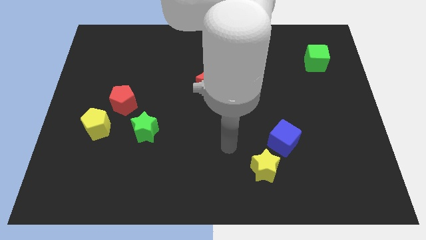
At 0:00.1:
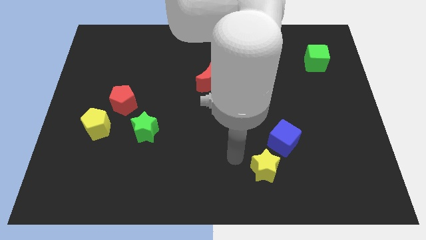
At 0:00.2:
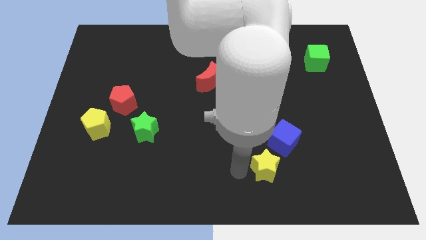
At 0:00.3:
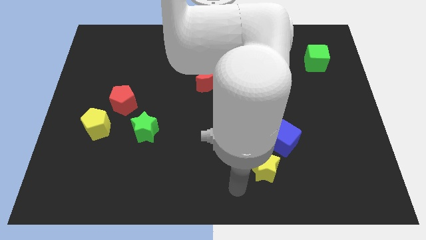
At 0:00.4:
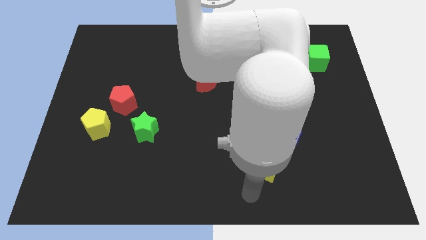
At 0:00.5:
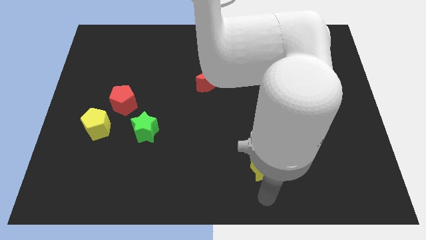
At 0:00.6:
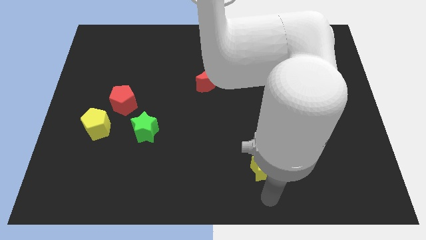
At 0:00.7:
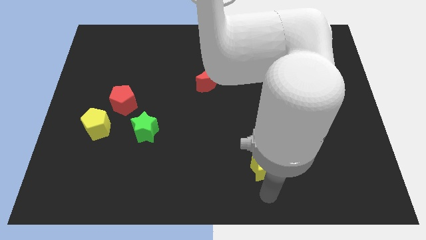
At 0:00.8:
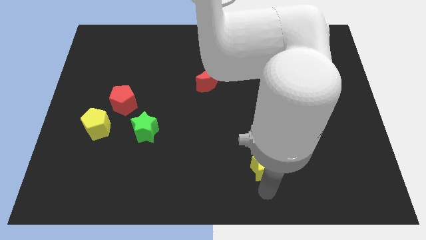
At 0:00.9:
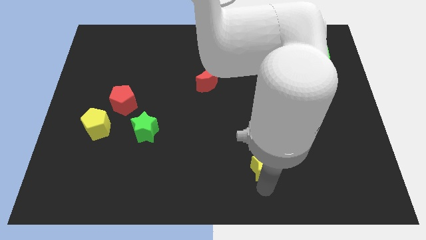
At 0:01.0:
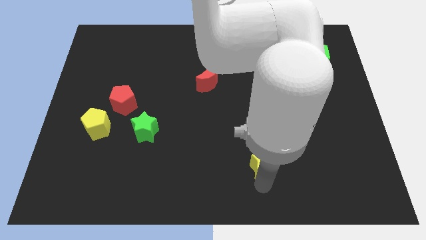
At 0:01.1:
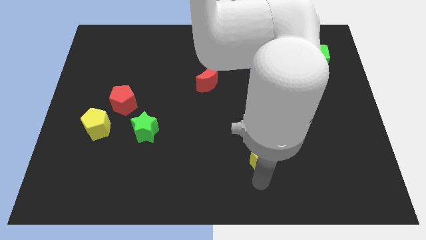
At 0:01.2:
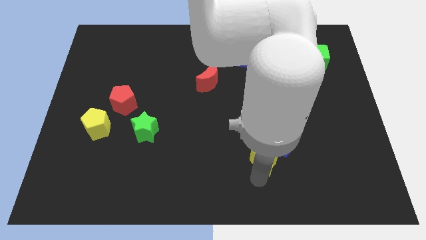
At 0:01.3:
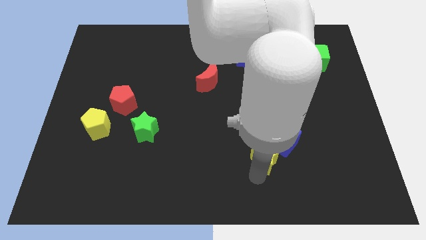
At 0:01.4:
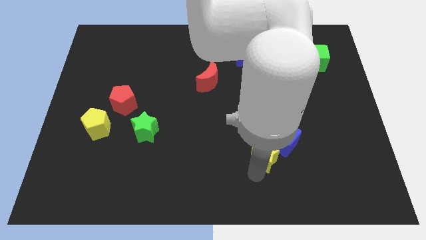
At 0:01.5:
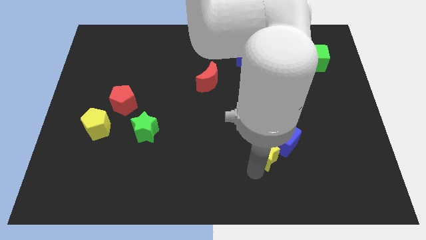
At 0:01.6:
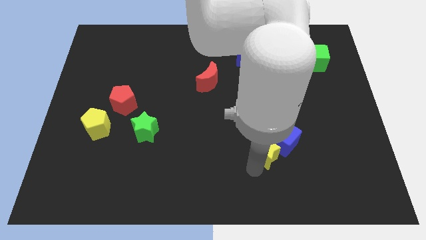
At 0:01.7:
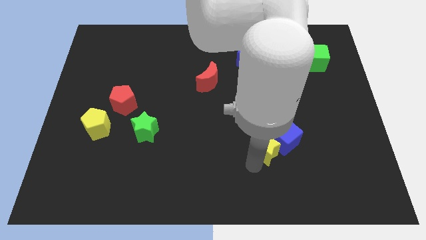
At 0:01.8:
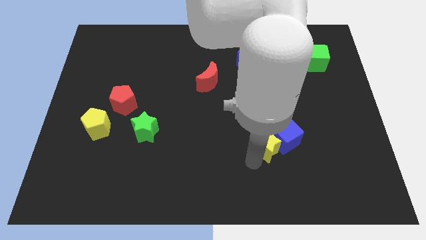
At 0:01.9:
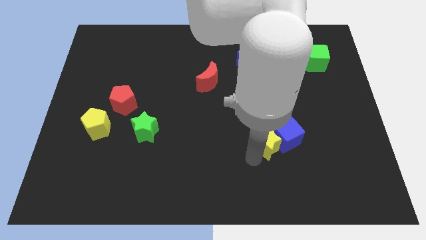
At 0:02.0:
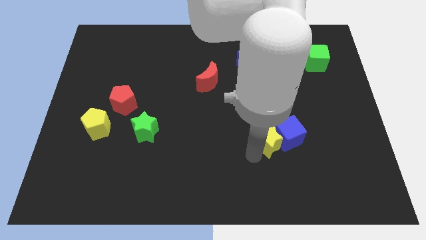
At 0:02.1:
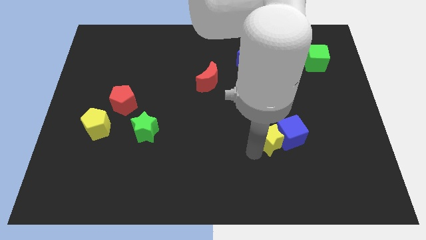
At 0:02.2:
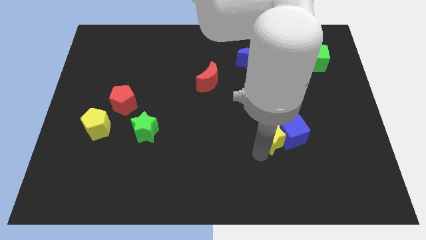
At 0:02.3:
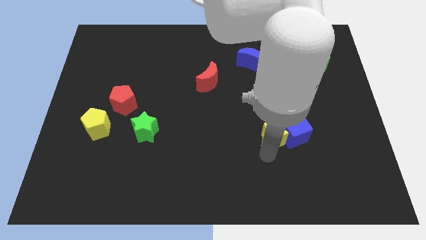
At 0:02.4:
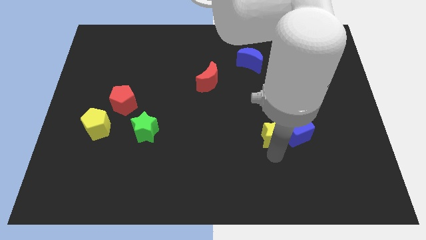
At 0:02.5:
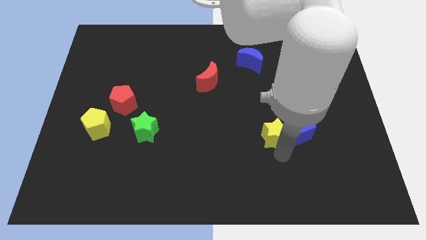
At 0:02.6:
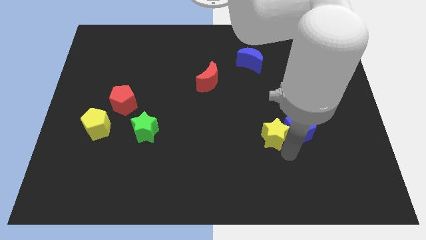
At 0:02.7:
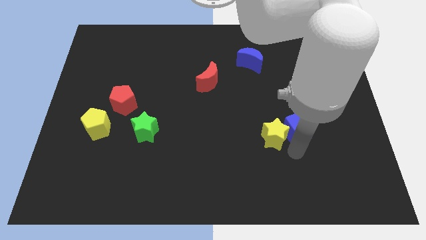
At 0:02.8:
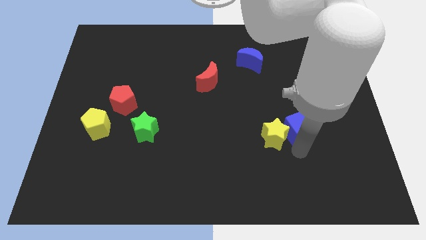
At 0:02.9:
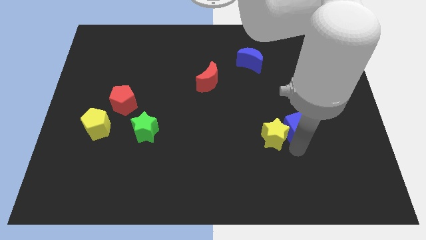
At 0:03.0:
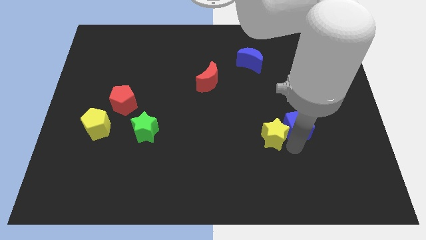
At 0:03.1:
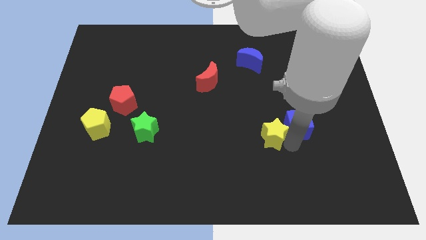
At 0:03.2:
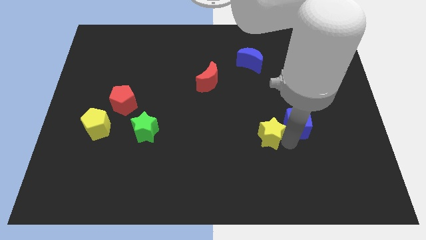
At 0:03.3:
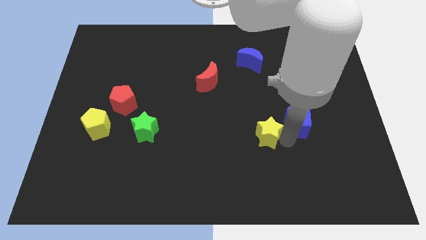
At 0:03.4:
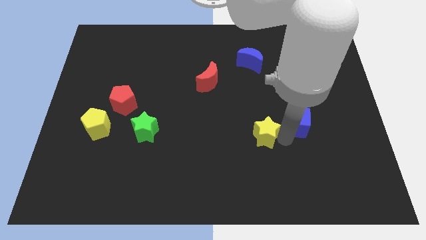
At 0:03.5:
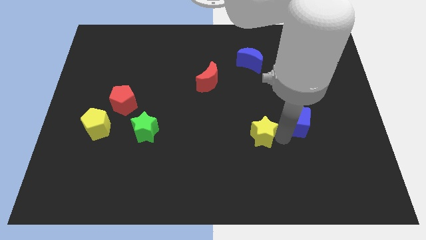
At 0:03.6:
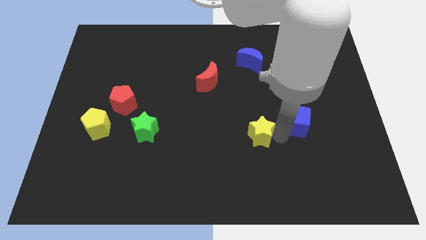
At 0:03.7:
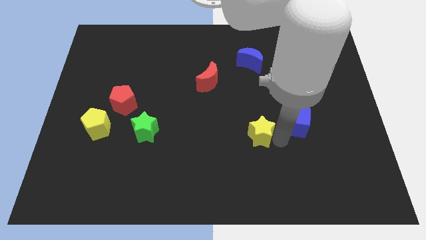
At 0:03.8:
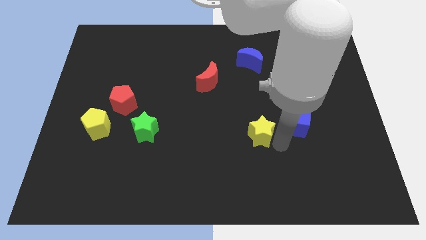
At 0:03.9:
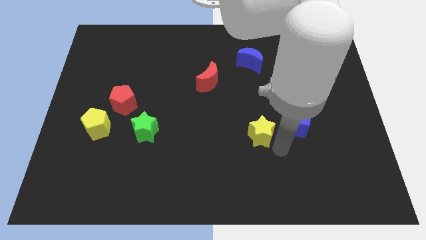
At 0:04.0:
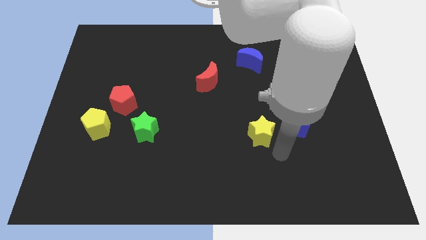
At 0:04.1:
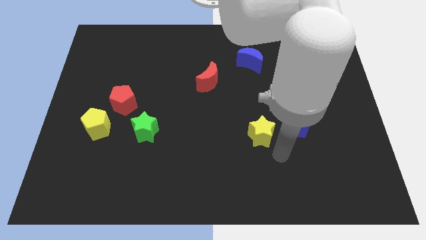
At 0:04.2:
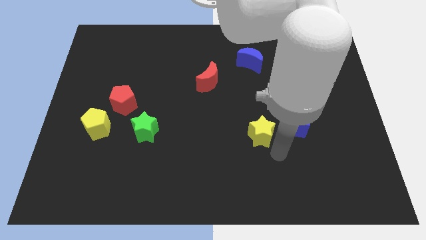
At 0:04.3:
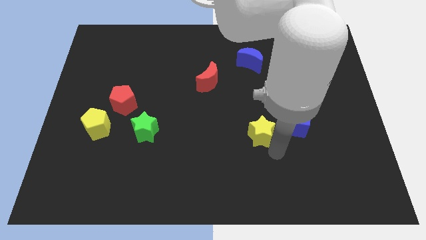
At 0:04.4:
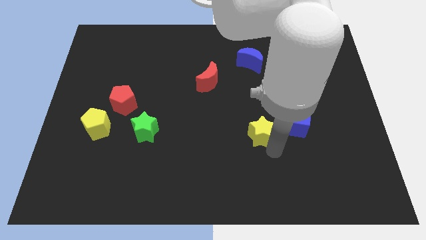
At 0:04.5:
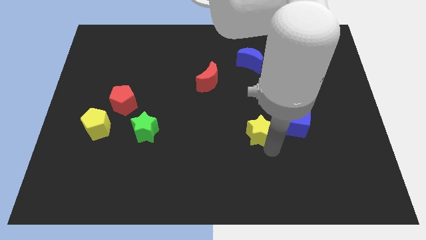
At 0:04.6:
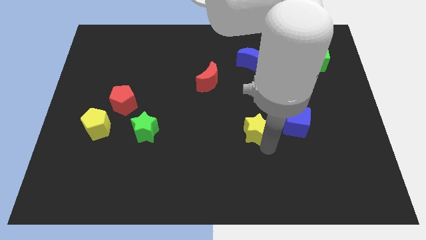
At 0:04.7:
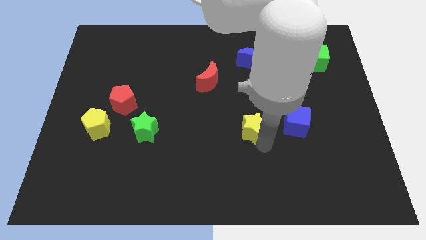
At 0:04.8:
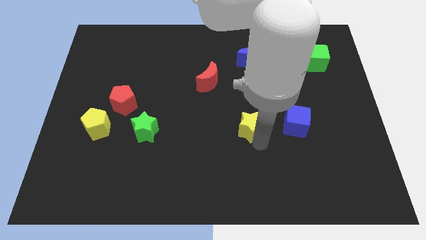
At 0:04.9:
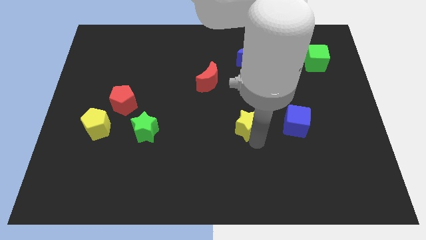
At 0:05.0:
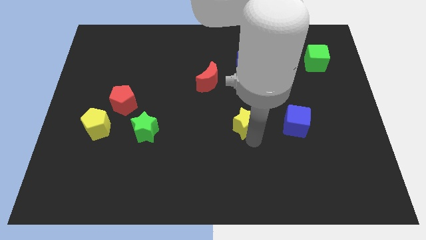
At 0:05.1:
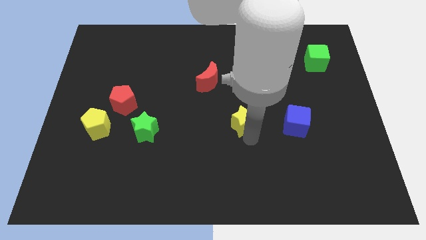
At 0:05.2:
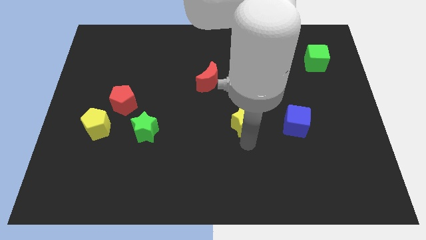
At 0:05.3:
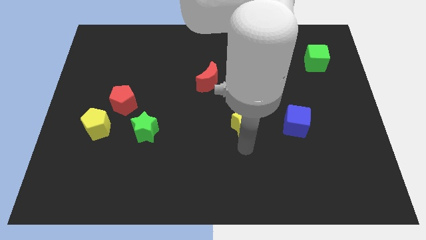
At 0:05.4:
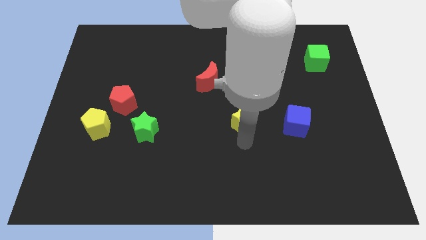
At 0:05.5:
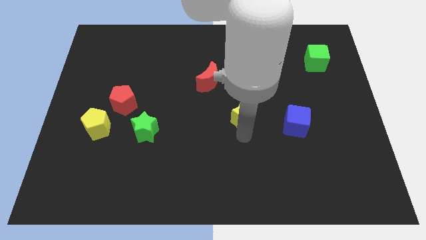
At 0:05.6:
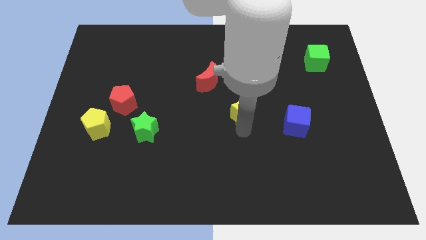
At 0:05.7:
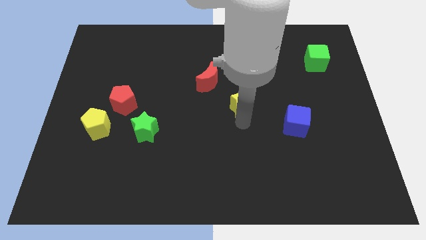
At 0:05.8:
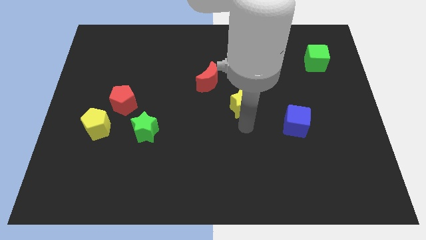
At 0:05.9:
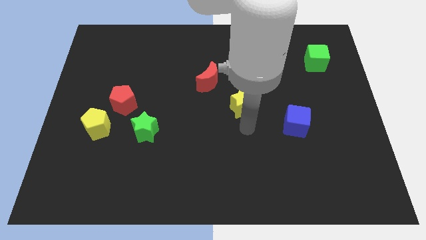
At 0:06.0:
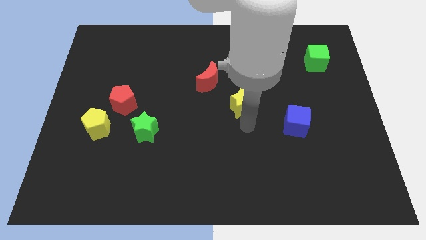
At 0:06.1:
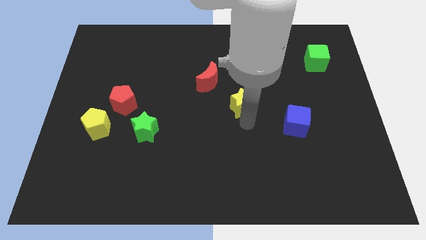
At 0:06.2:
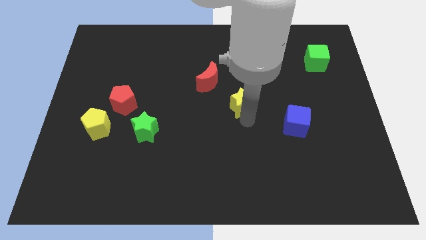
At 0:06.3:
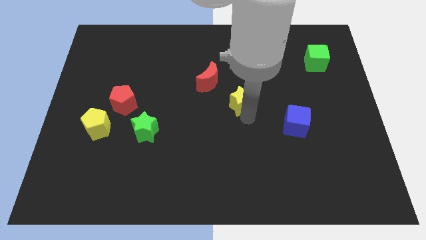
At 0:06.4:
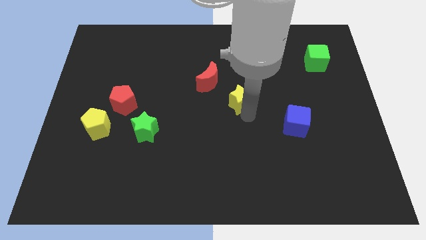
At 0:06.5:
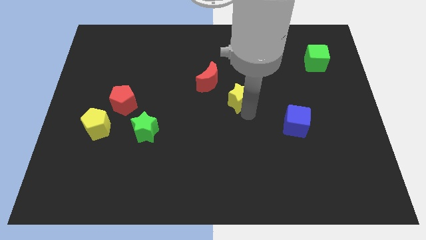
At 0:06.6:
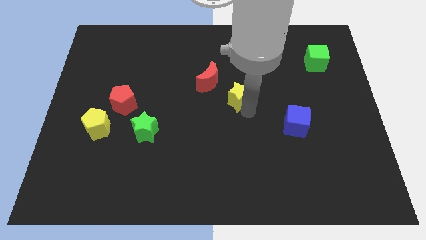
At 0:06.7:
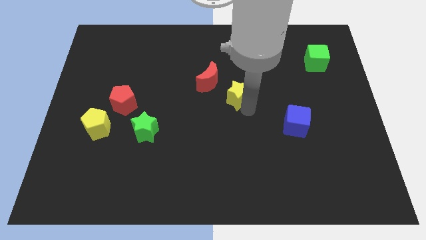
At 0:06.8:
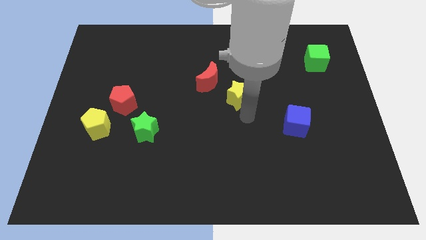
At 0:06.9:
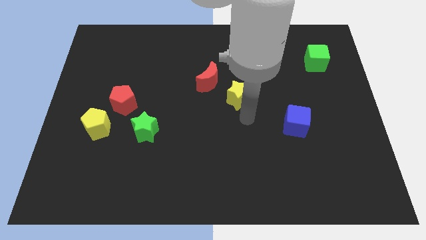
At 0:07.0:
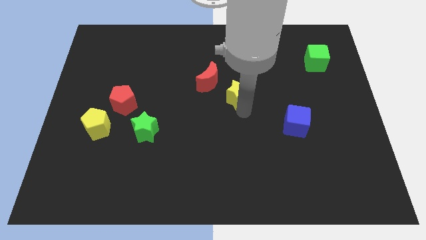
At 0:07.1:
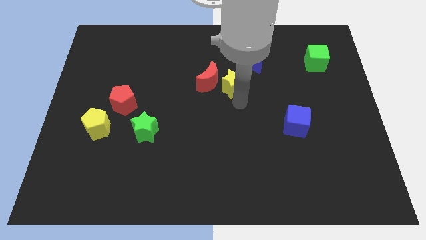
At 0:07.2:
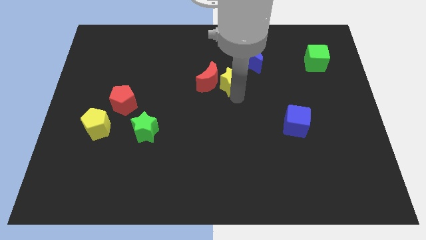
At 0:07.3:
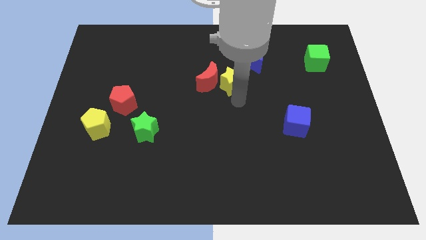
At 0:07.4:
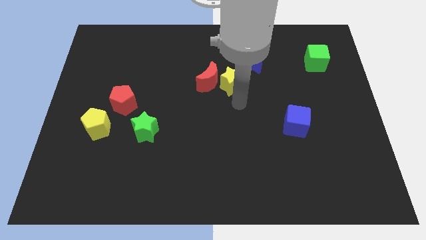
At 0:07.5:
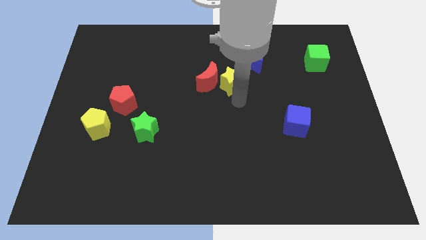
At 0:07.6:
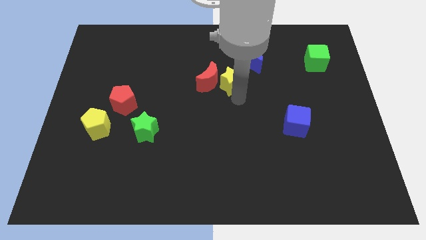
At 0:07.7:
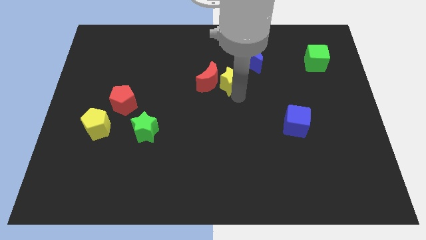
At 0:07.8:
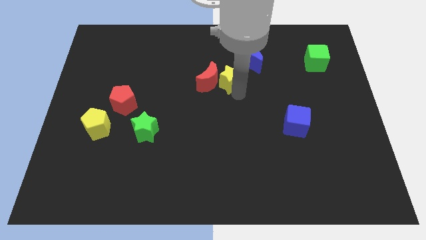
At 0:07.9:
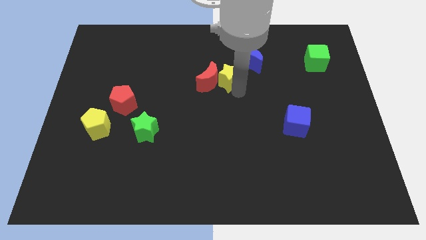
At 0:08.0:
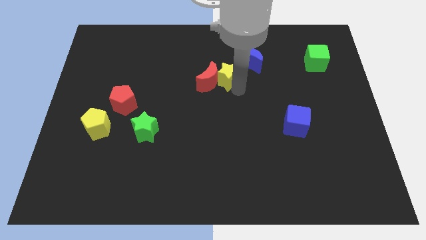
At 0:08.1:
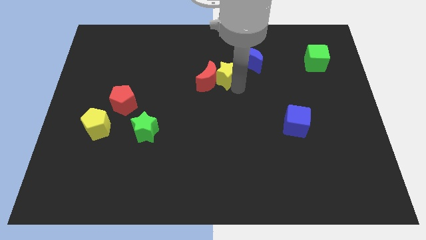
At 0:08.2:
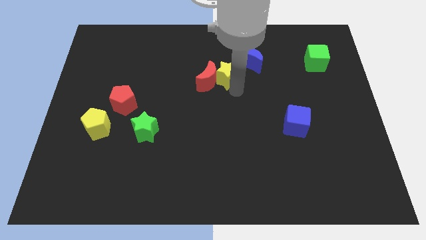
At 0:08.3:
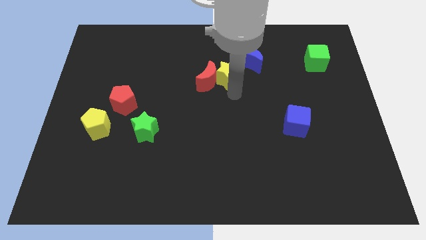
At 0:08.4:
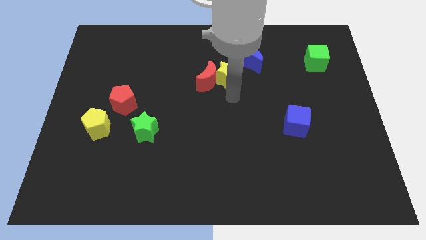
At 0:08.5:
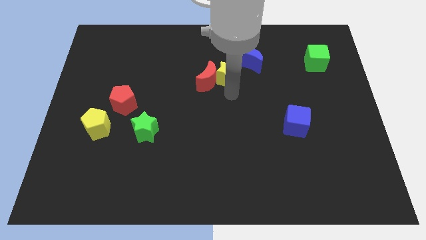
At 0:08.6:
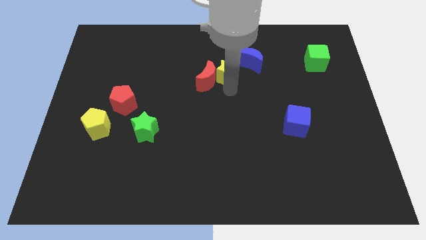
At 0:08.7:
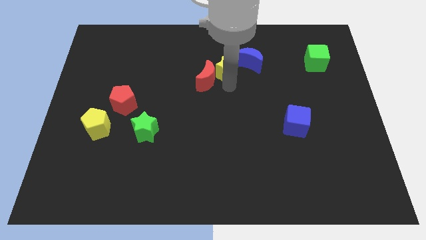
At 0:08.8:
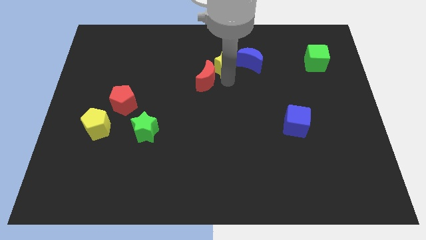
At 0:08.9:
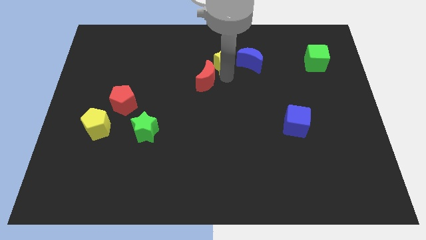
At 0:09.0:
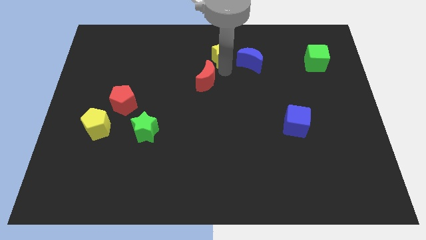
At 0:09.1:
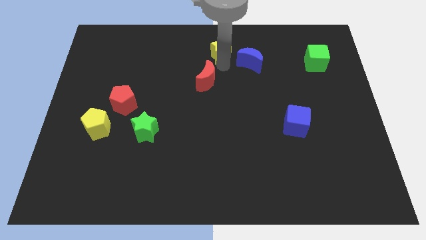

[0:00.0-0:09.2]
push the yellow star to the towards your base
